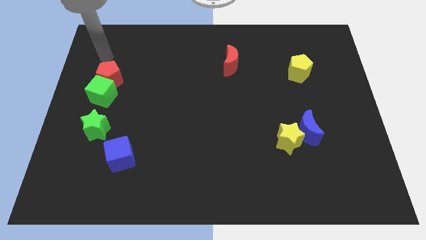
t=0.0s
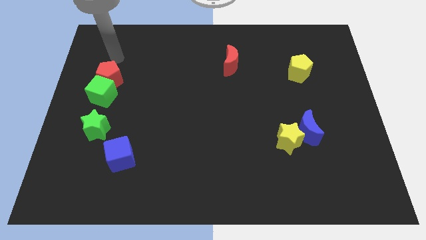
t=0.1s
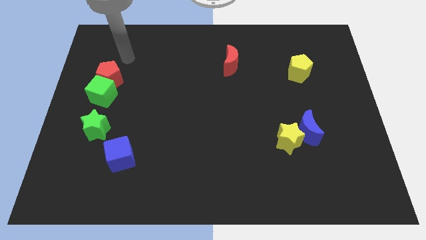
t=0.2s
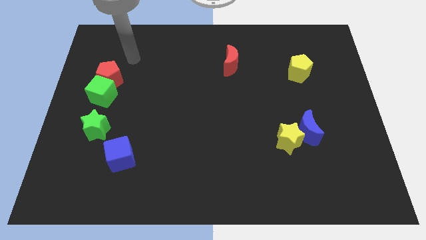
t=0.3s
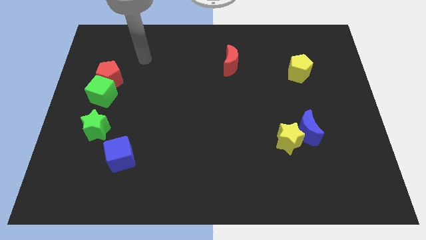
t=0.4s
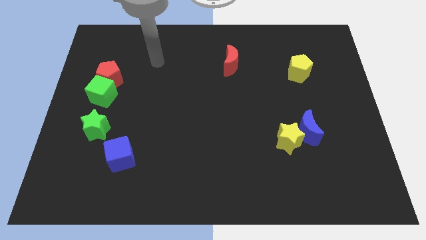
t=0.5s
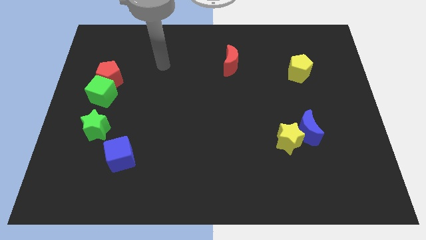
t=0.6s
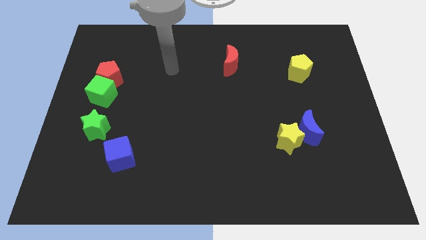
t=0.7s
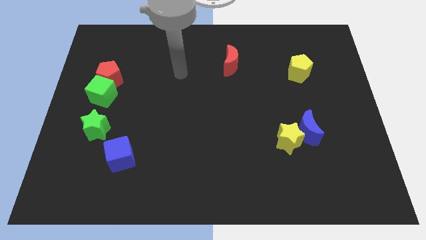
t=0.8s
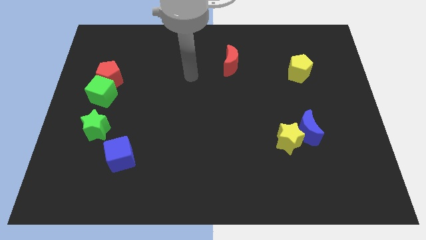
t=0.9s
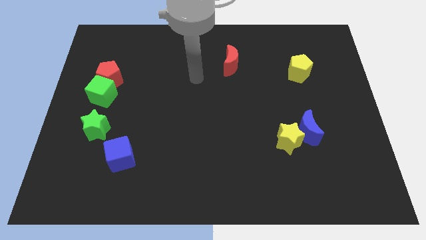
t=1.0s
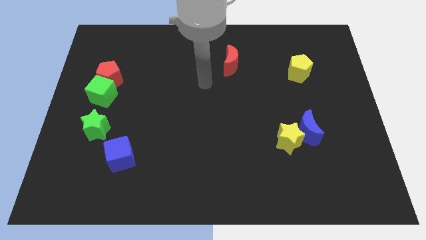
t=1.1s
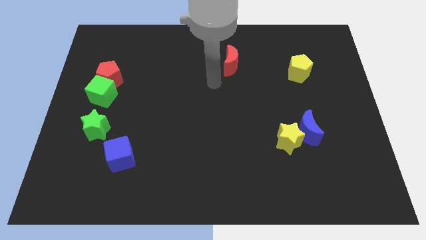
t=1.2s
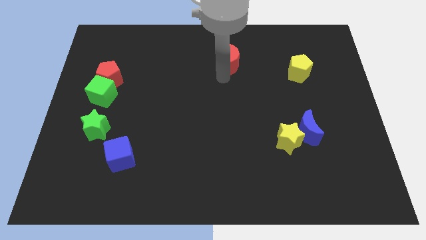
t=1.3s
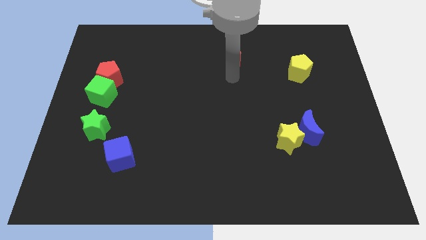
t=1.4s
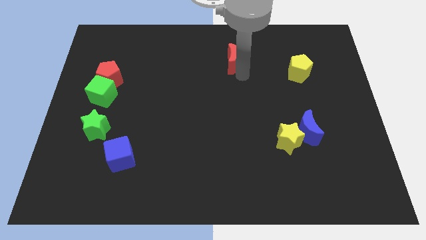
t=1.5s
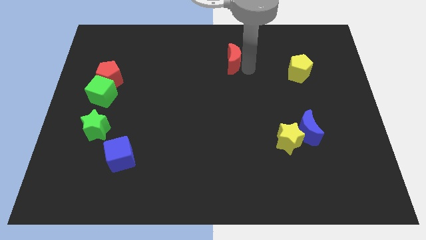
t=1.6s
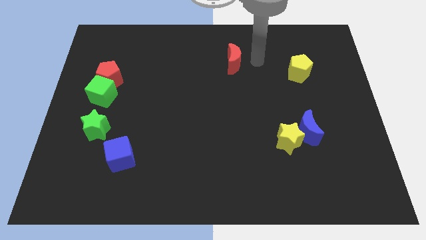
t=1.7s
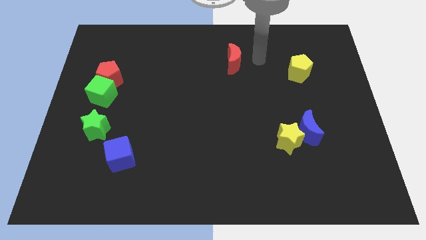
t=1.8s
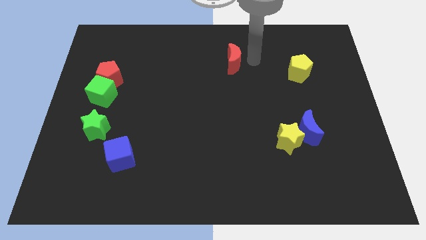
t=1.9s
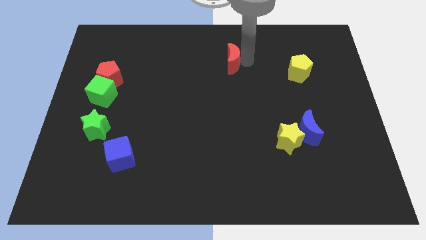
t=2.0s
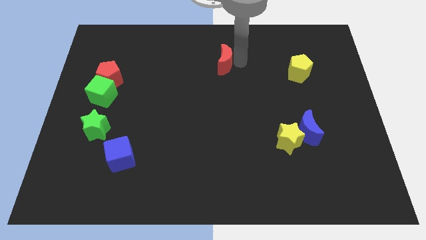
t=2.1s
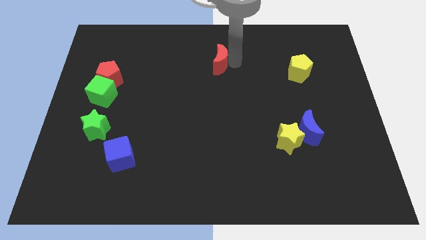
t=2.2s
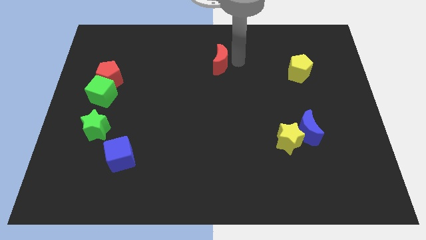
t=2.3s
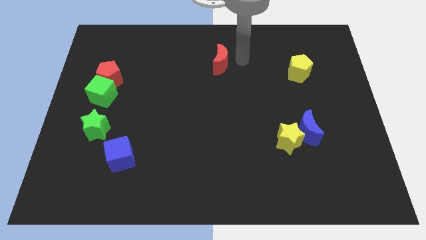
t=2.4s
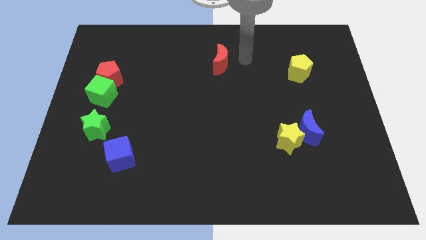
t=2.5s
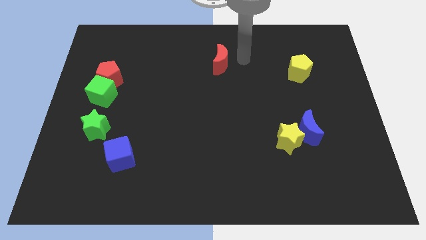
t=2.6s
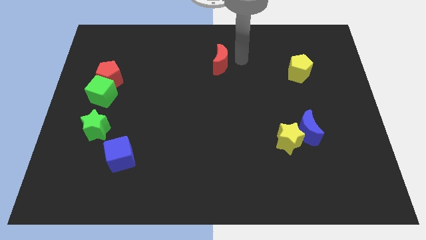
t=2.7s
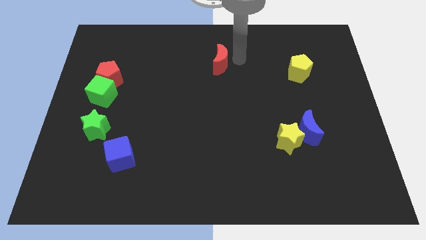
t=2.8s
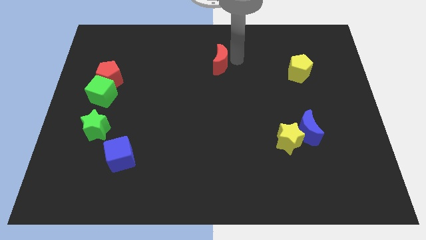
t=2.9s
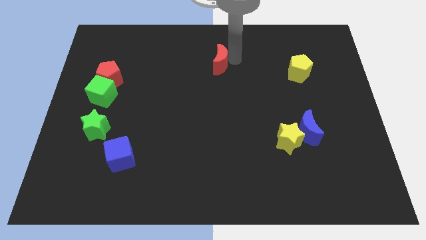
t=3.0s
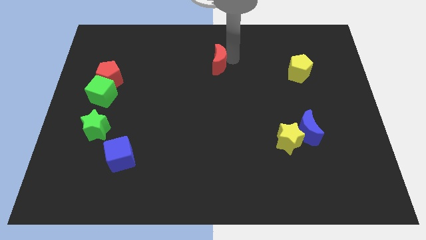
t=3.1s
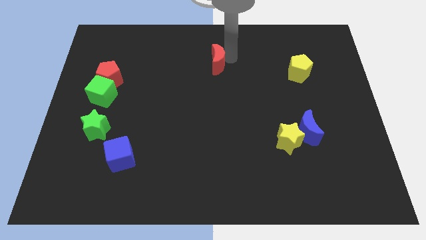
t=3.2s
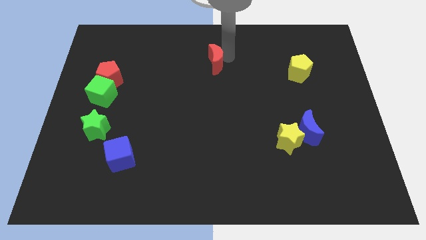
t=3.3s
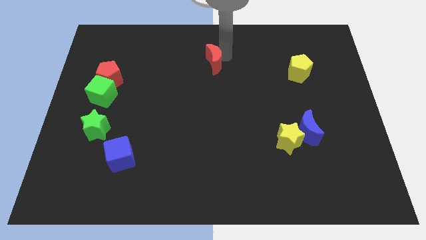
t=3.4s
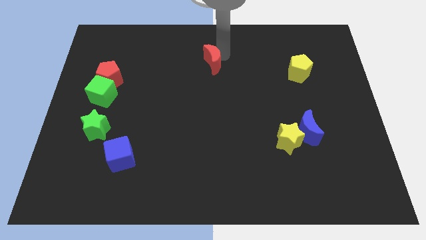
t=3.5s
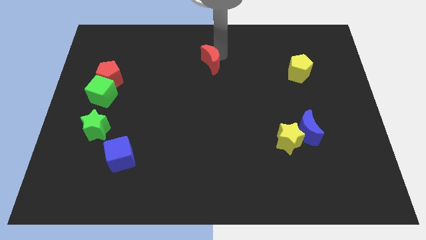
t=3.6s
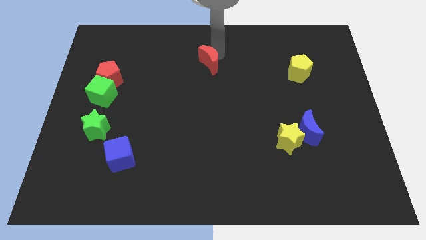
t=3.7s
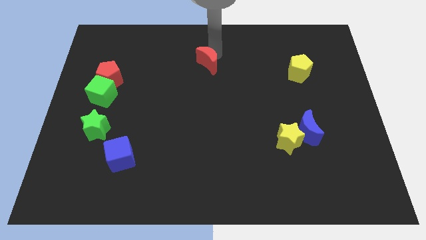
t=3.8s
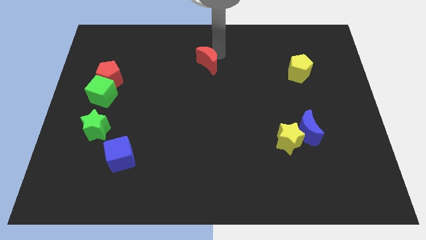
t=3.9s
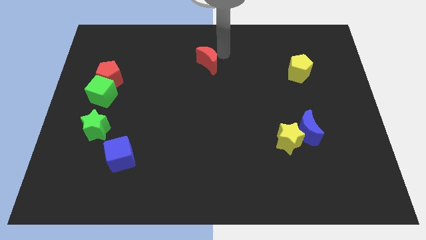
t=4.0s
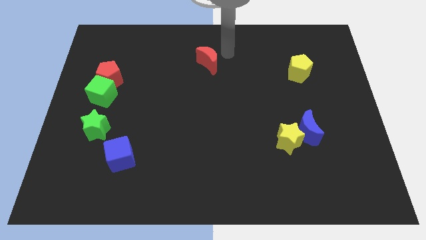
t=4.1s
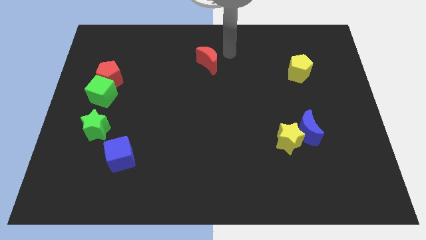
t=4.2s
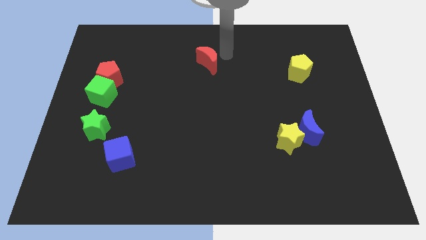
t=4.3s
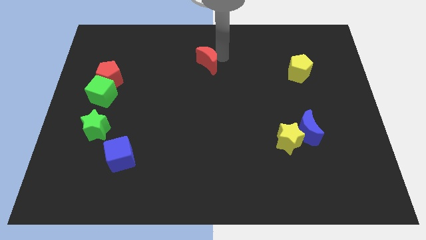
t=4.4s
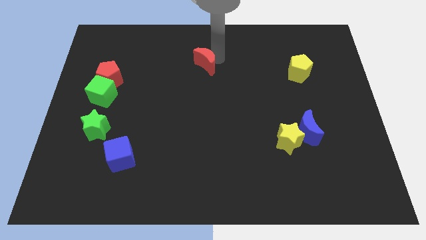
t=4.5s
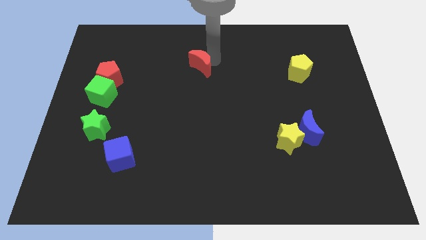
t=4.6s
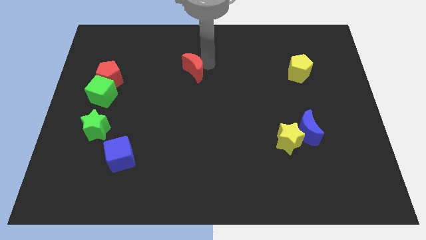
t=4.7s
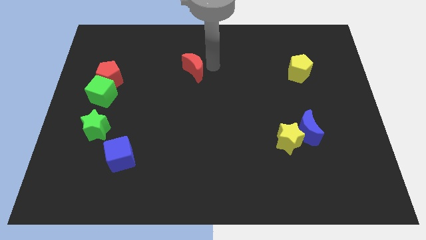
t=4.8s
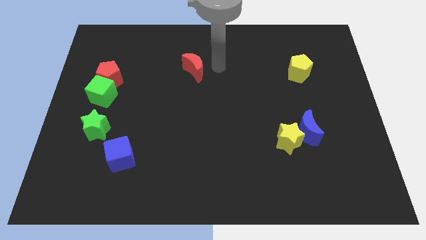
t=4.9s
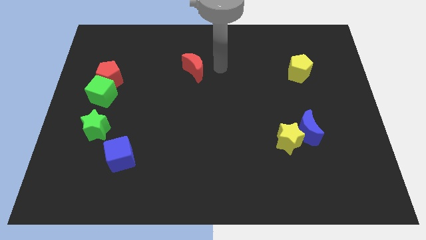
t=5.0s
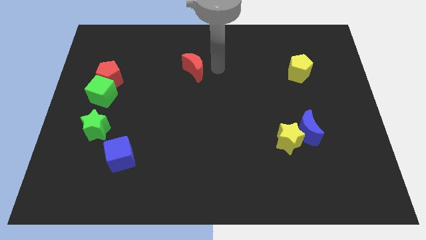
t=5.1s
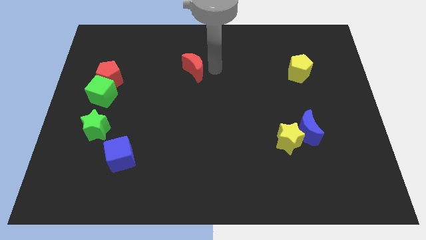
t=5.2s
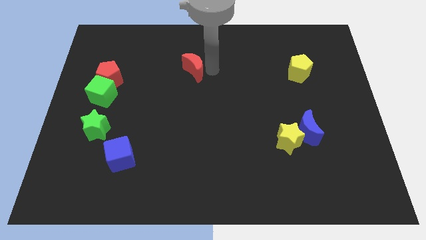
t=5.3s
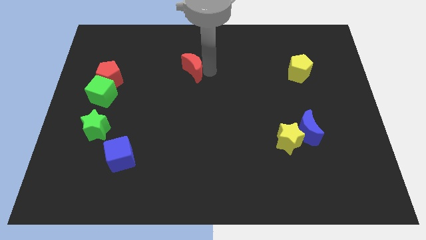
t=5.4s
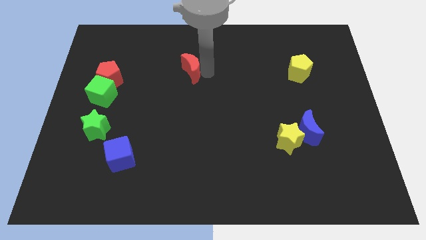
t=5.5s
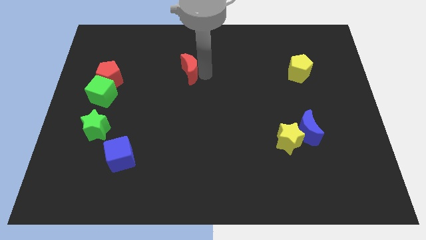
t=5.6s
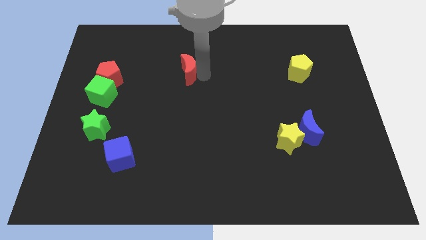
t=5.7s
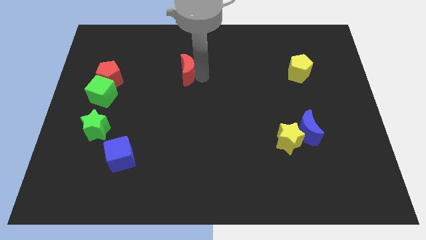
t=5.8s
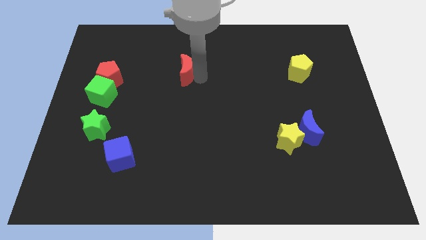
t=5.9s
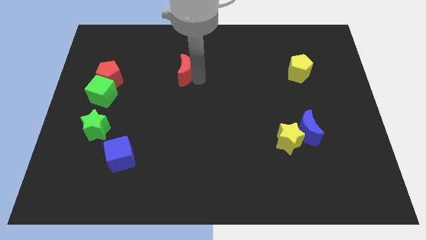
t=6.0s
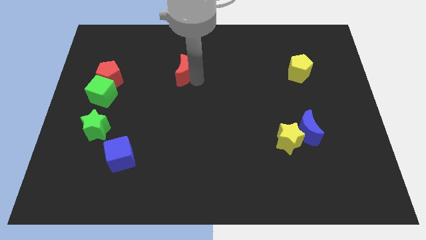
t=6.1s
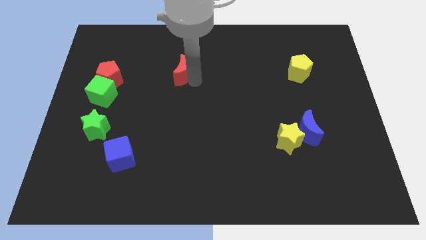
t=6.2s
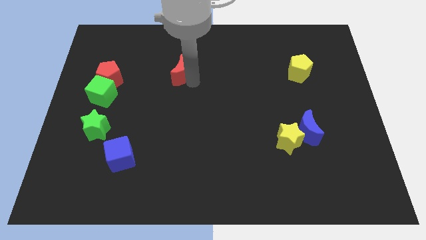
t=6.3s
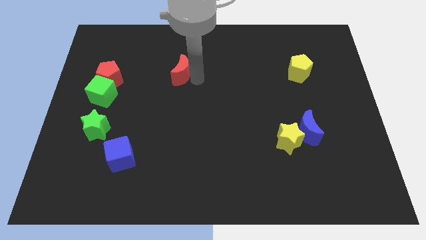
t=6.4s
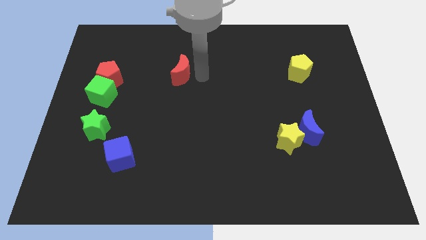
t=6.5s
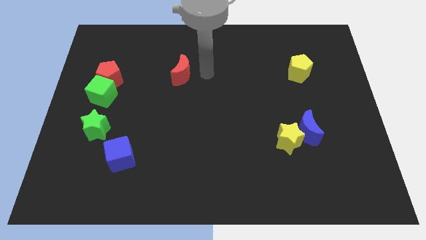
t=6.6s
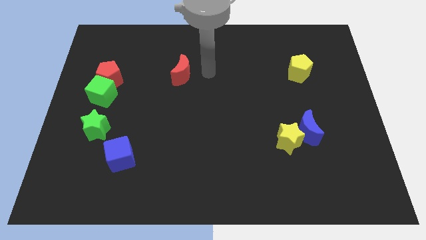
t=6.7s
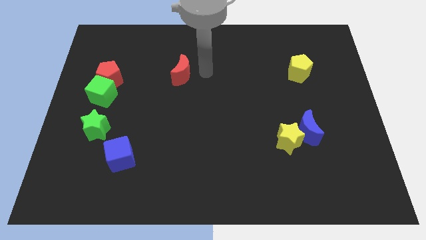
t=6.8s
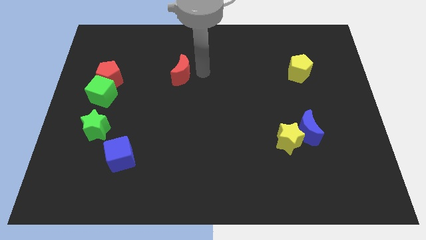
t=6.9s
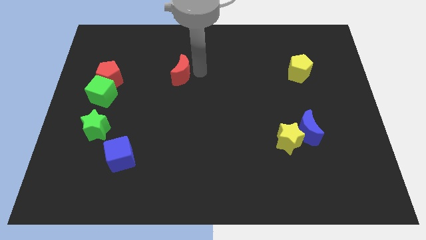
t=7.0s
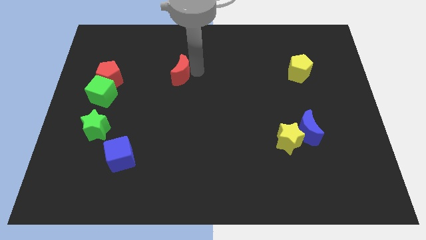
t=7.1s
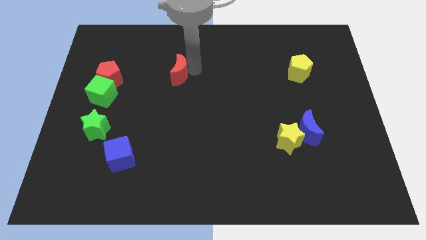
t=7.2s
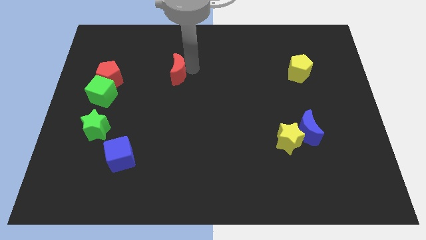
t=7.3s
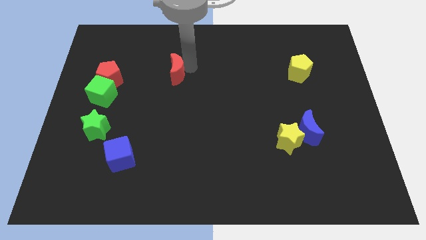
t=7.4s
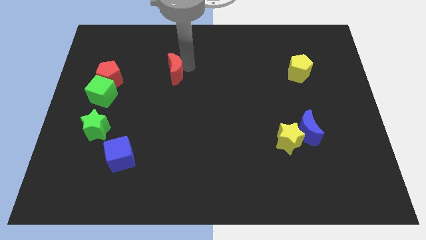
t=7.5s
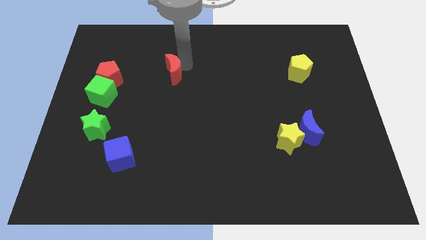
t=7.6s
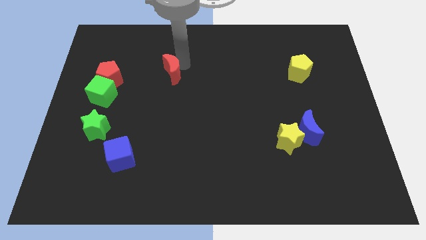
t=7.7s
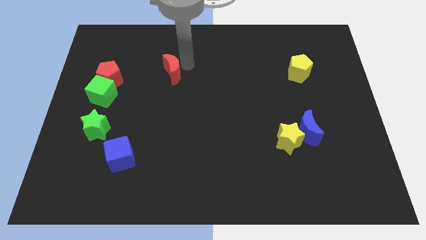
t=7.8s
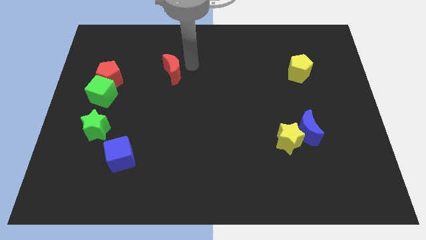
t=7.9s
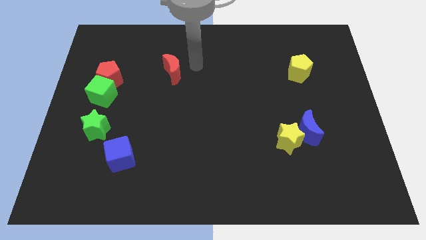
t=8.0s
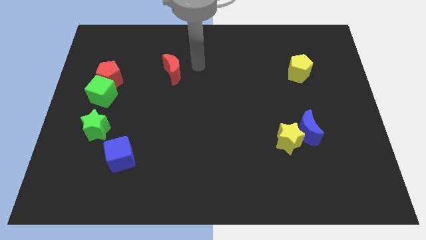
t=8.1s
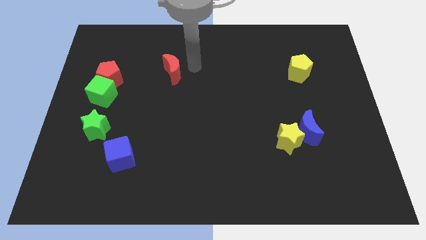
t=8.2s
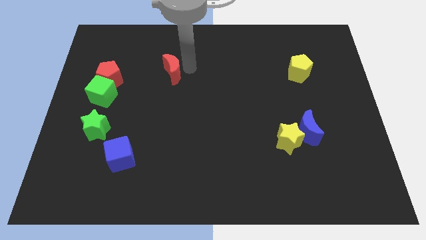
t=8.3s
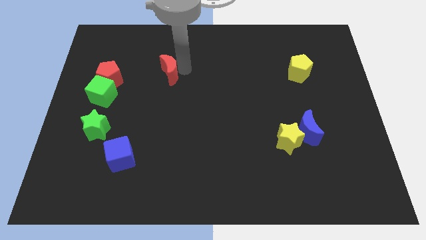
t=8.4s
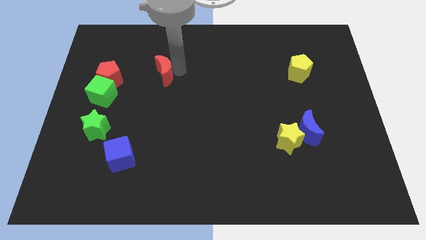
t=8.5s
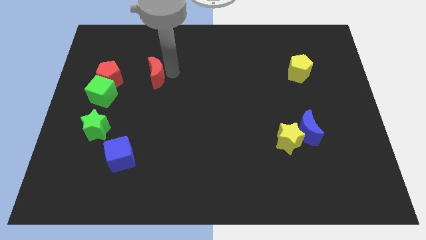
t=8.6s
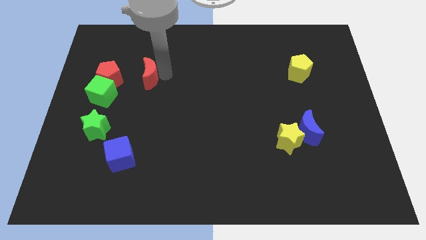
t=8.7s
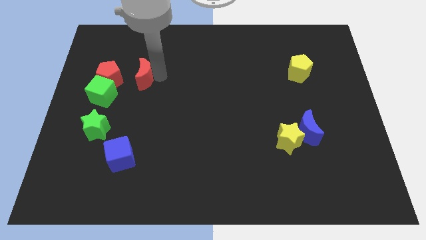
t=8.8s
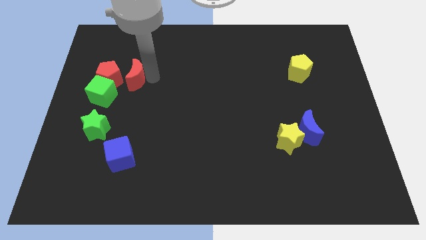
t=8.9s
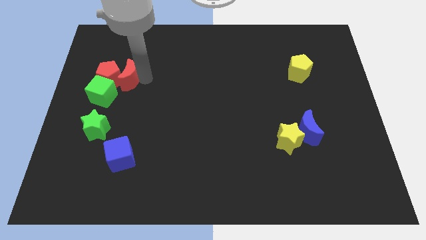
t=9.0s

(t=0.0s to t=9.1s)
slide the red moon next to the red pentagon
